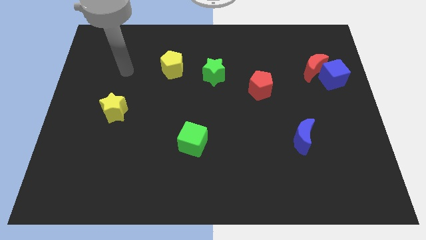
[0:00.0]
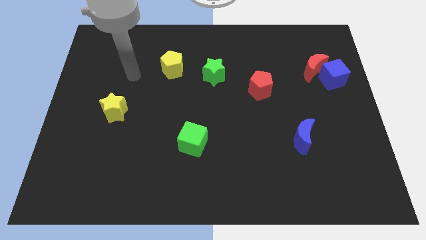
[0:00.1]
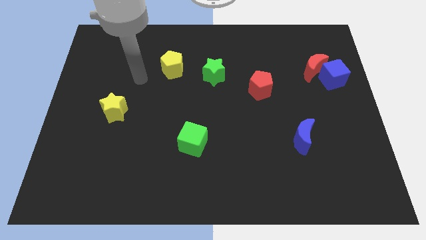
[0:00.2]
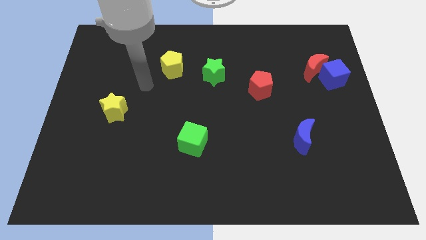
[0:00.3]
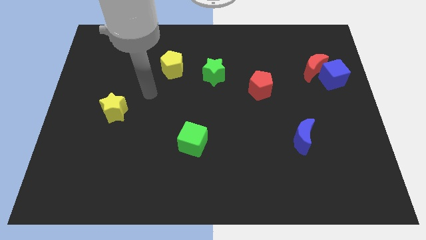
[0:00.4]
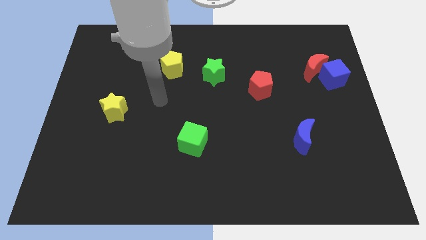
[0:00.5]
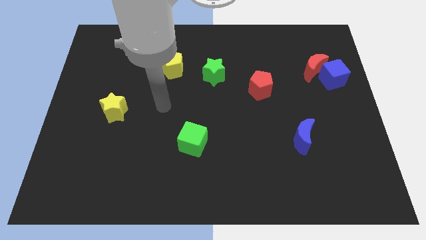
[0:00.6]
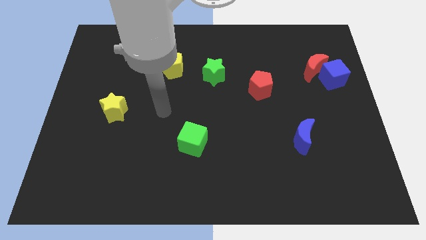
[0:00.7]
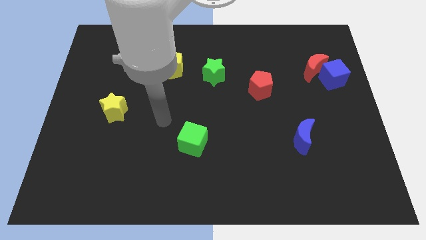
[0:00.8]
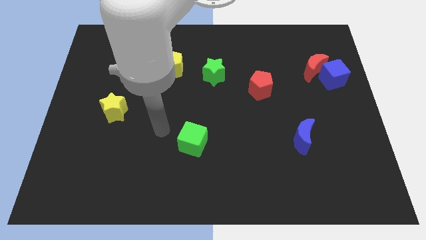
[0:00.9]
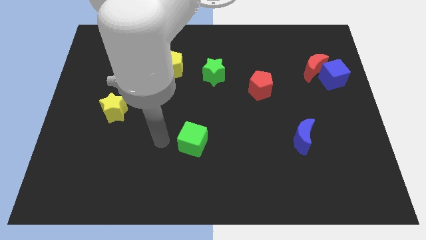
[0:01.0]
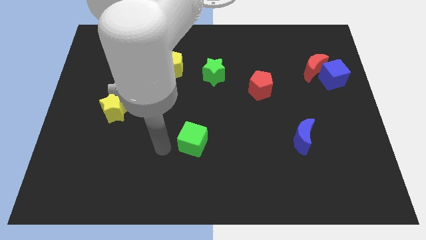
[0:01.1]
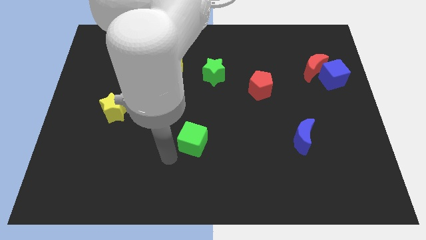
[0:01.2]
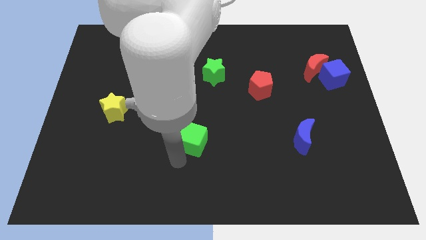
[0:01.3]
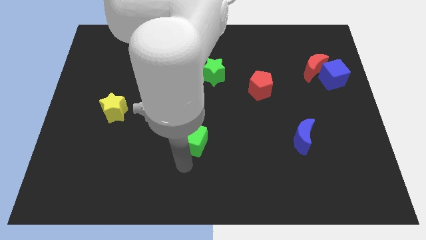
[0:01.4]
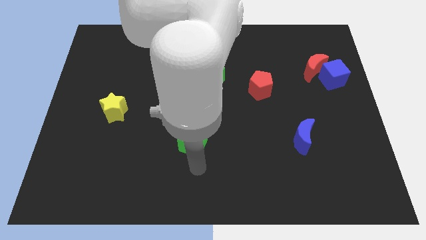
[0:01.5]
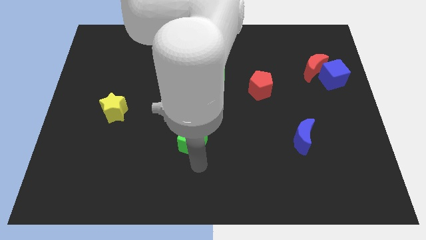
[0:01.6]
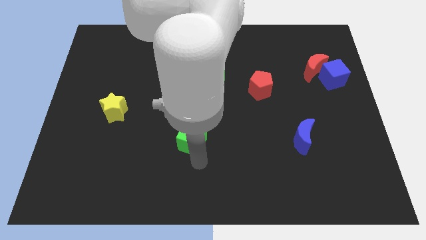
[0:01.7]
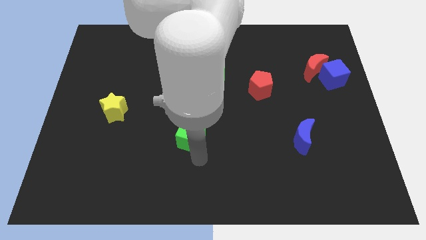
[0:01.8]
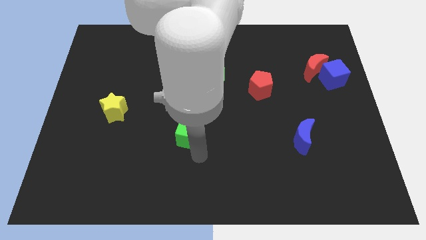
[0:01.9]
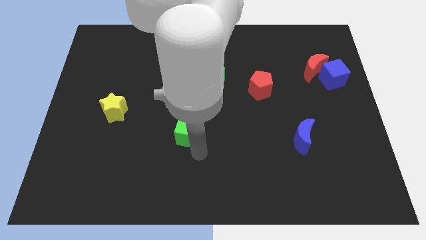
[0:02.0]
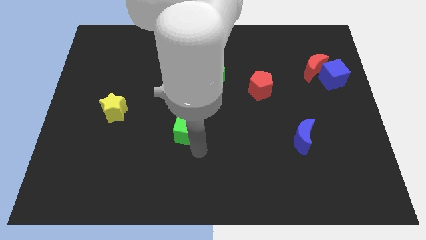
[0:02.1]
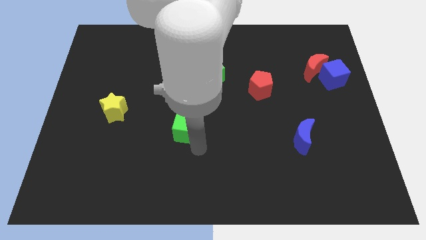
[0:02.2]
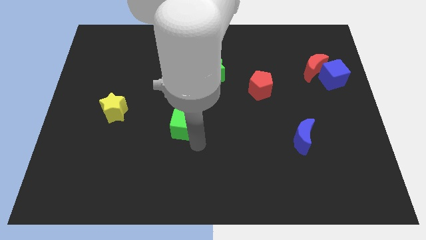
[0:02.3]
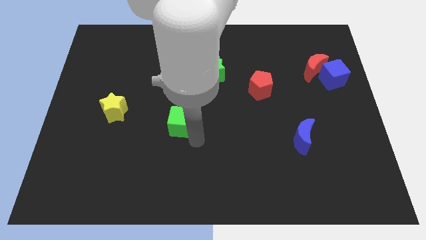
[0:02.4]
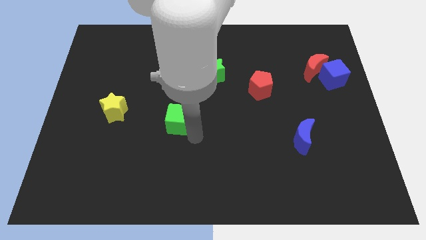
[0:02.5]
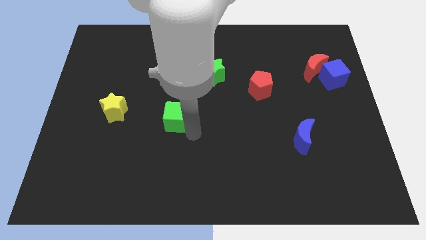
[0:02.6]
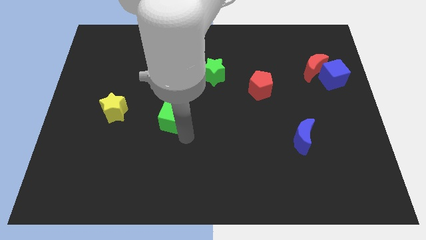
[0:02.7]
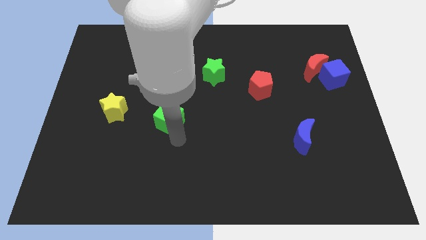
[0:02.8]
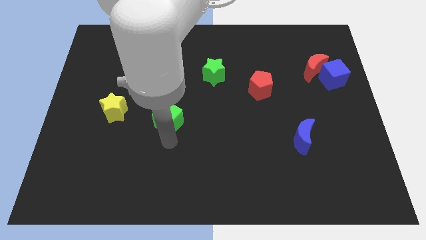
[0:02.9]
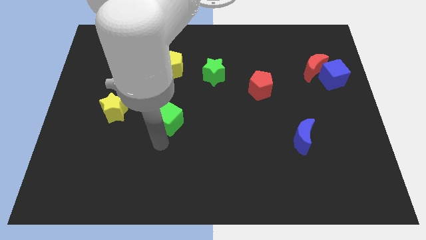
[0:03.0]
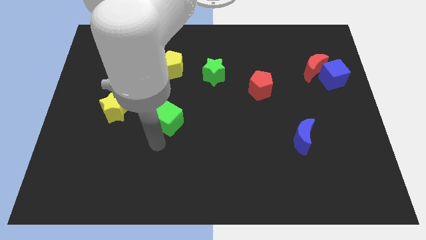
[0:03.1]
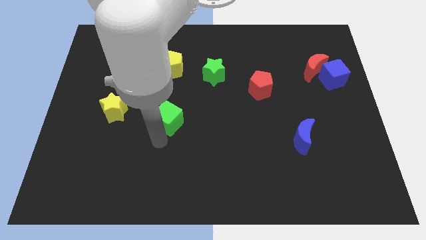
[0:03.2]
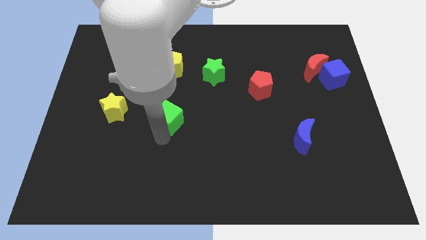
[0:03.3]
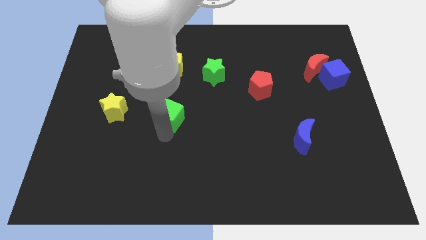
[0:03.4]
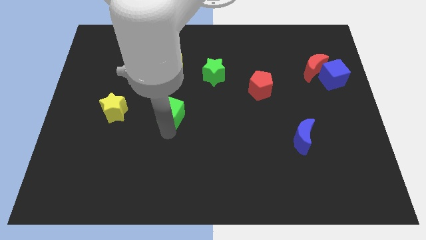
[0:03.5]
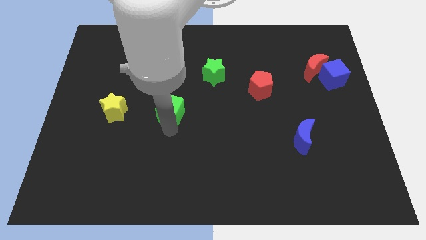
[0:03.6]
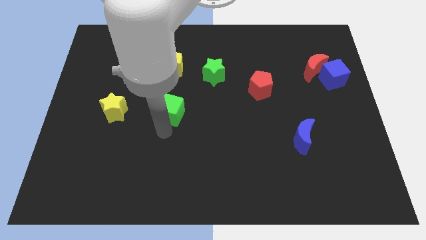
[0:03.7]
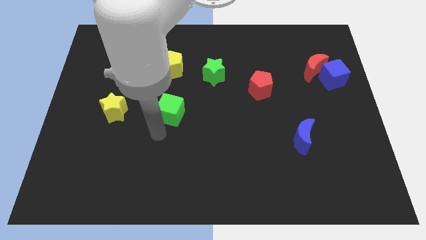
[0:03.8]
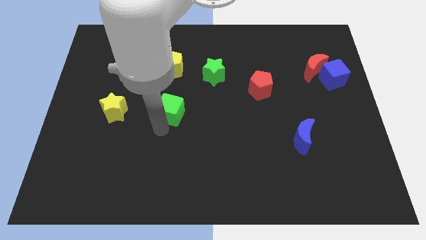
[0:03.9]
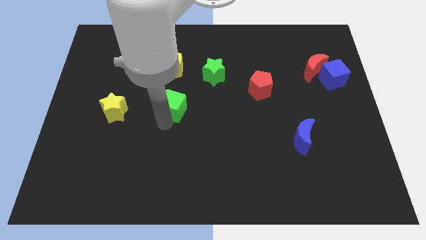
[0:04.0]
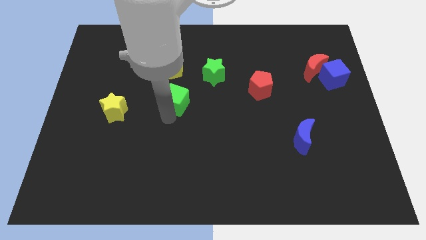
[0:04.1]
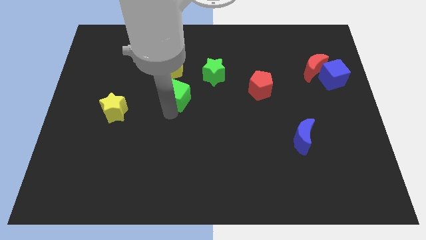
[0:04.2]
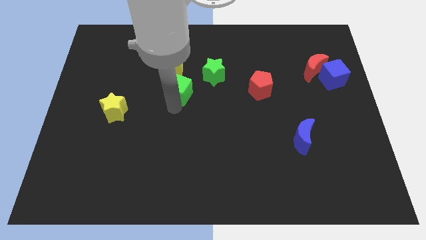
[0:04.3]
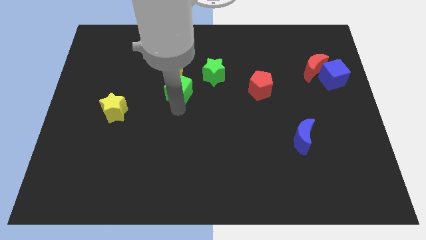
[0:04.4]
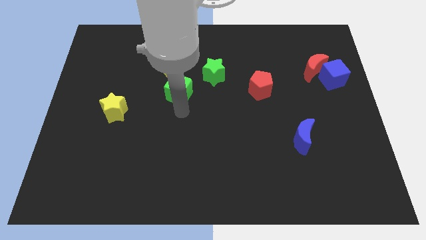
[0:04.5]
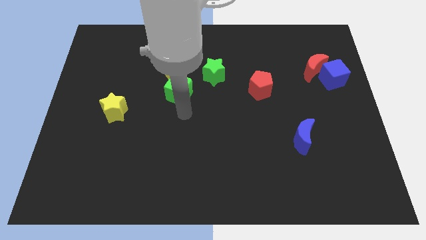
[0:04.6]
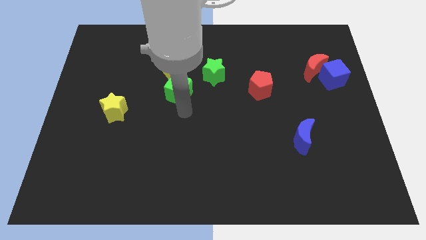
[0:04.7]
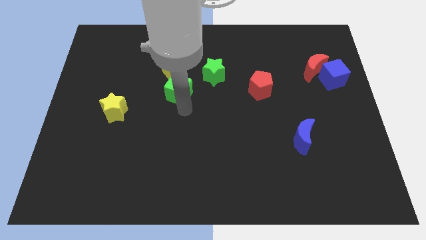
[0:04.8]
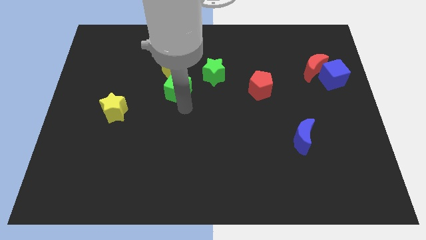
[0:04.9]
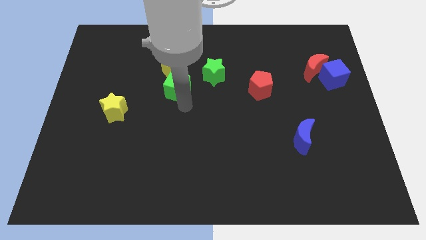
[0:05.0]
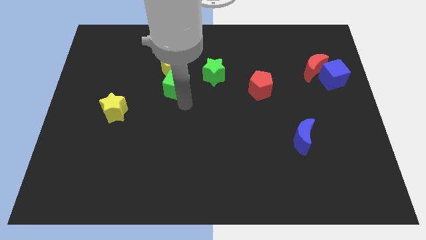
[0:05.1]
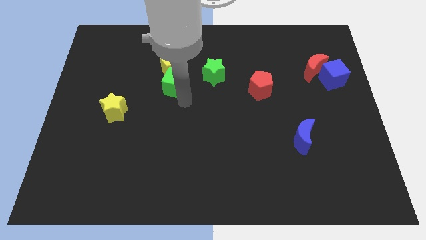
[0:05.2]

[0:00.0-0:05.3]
push the green cube to the yellow pentagon

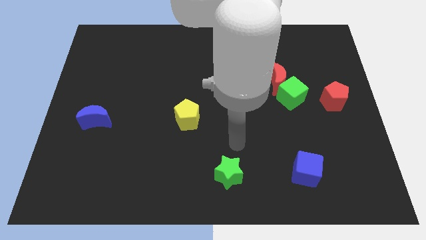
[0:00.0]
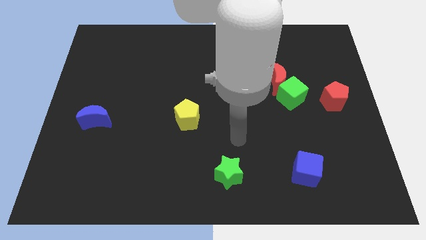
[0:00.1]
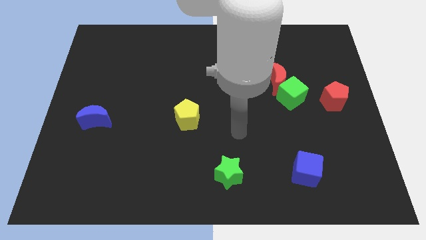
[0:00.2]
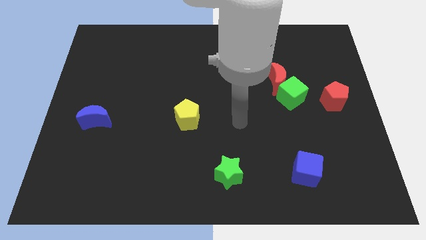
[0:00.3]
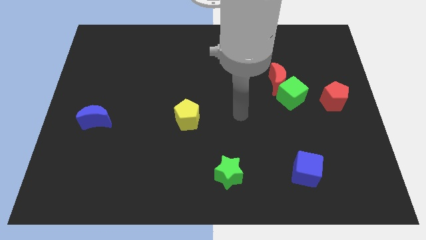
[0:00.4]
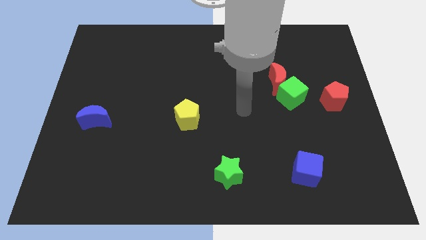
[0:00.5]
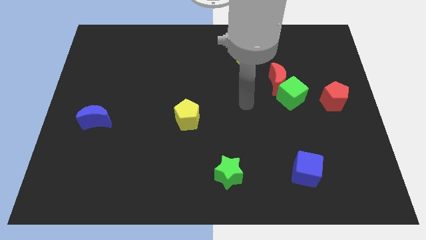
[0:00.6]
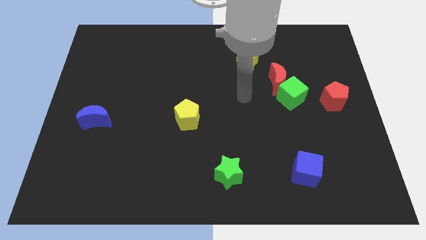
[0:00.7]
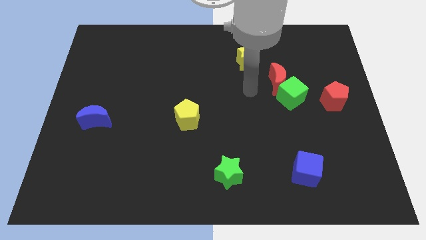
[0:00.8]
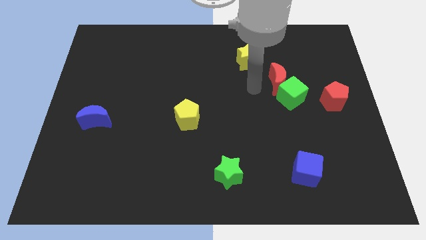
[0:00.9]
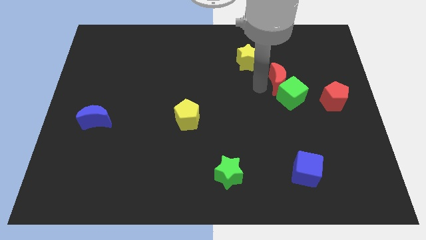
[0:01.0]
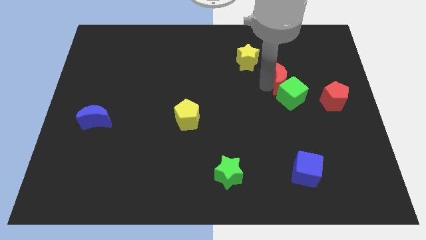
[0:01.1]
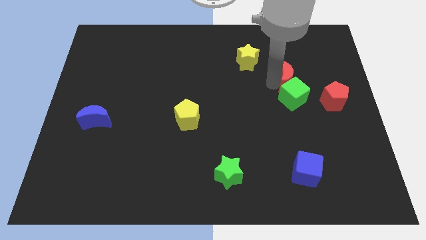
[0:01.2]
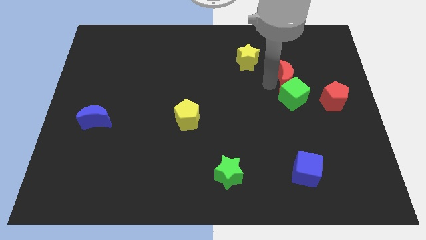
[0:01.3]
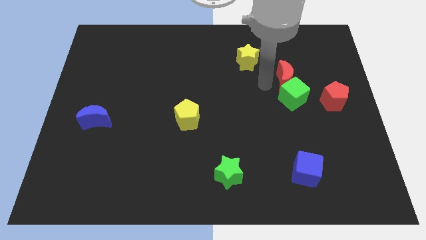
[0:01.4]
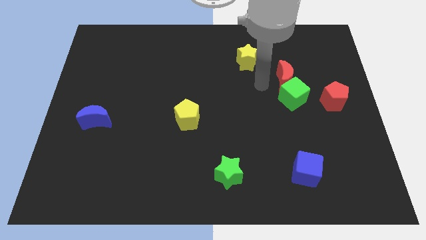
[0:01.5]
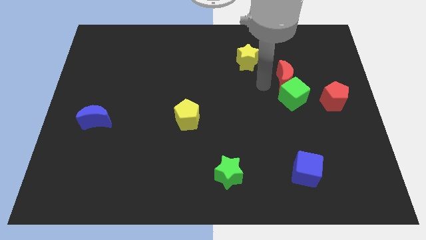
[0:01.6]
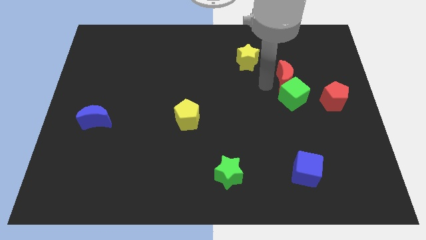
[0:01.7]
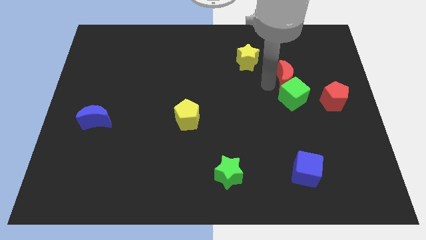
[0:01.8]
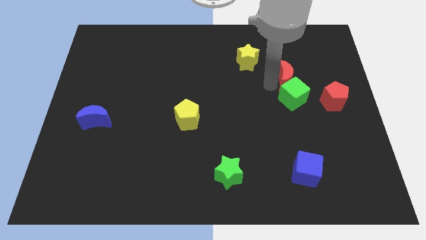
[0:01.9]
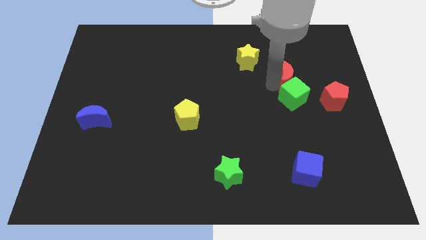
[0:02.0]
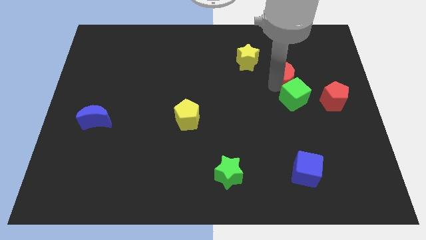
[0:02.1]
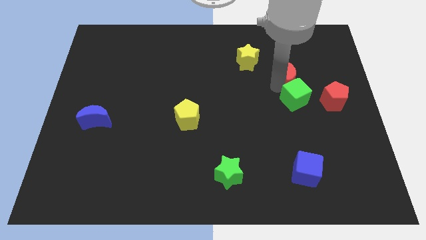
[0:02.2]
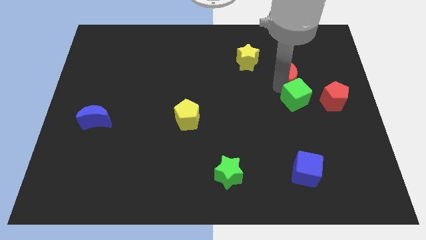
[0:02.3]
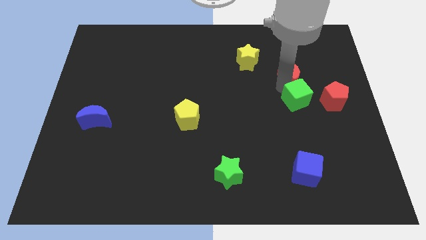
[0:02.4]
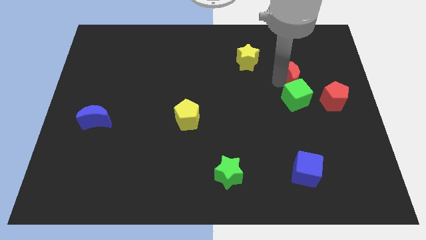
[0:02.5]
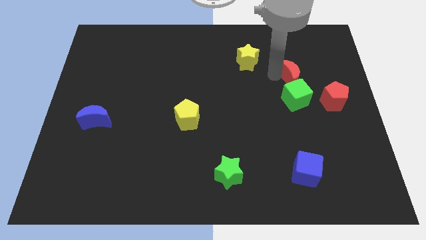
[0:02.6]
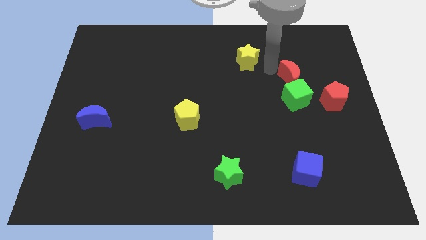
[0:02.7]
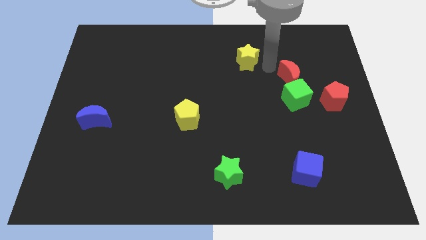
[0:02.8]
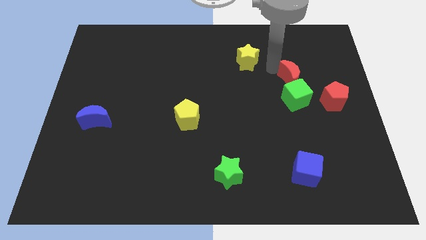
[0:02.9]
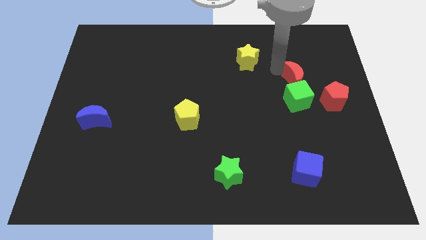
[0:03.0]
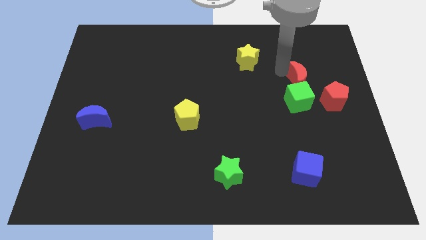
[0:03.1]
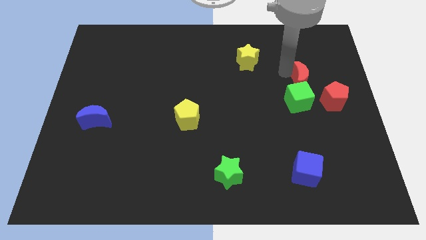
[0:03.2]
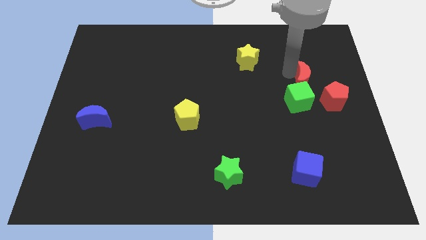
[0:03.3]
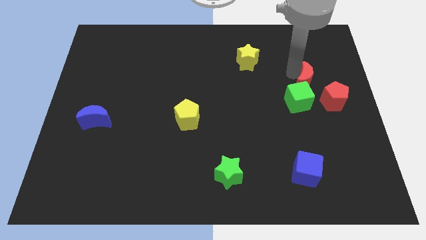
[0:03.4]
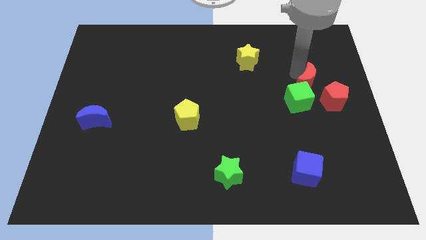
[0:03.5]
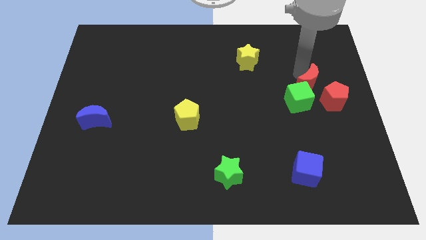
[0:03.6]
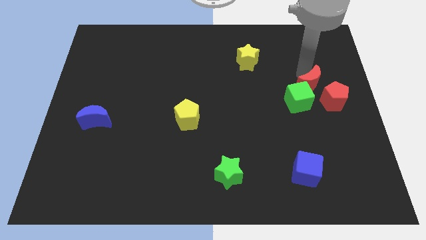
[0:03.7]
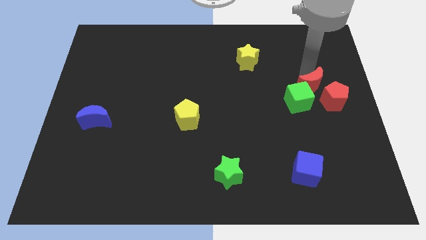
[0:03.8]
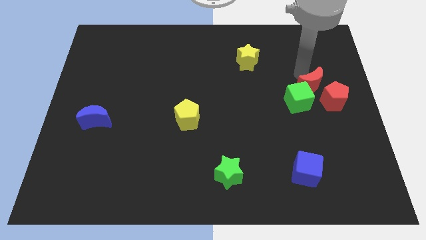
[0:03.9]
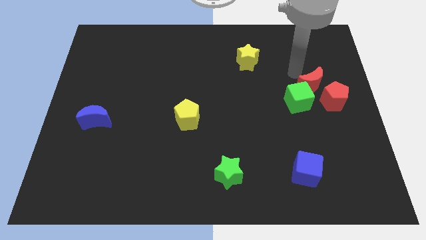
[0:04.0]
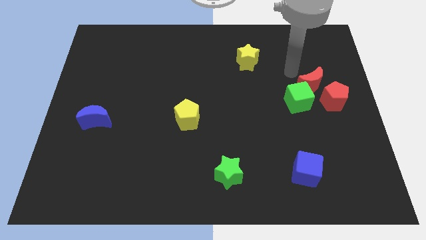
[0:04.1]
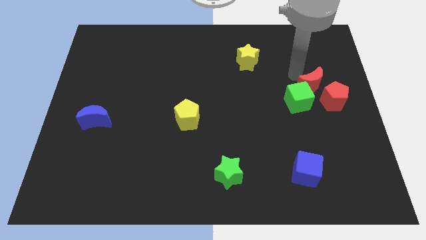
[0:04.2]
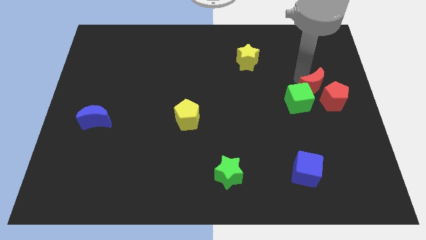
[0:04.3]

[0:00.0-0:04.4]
move the red moon towards the red pentagon
